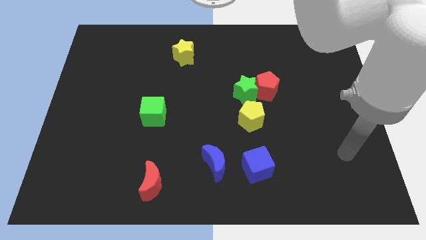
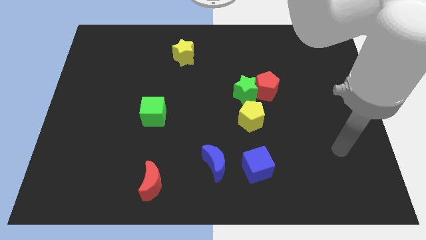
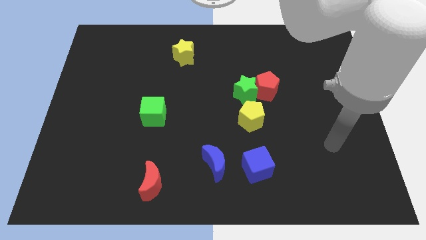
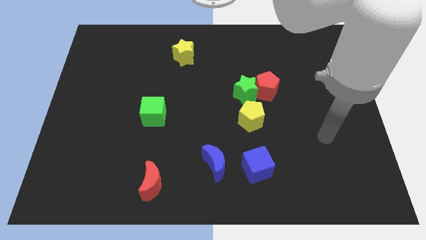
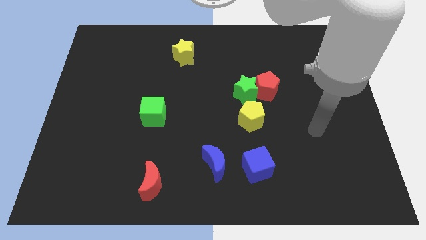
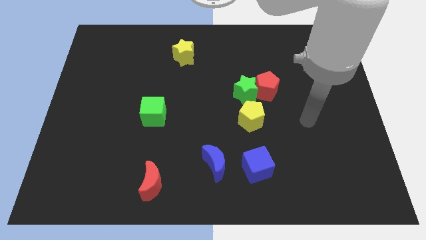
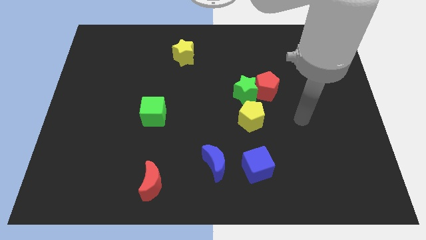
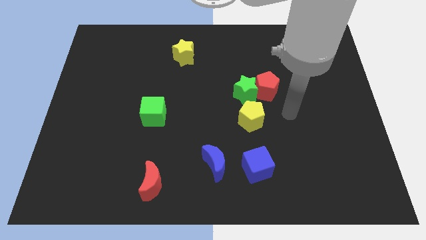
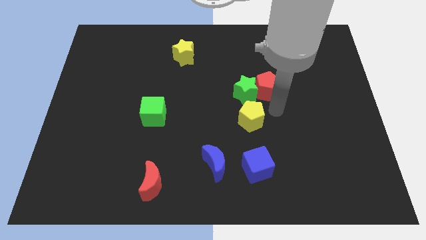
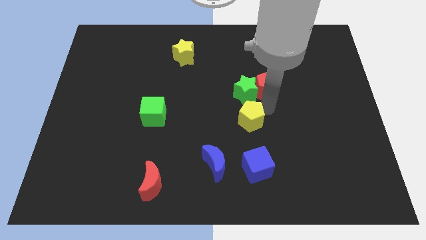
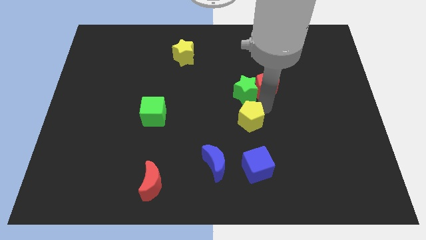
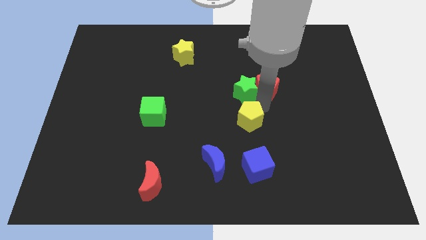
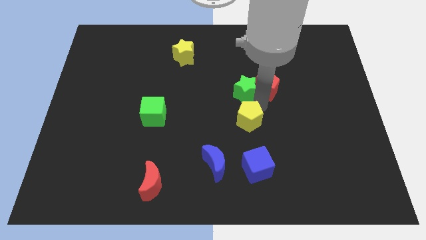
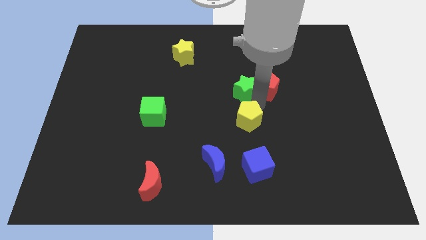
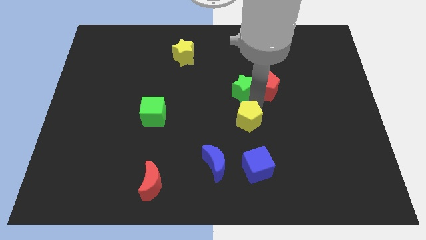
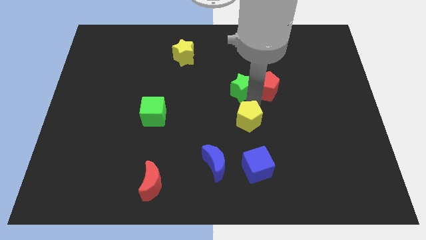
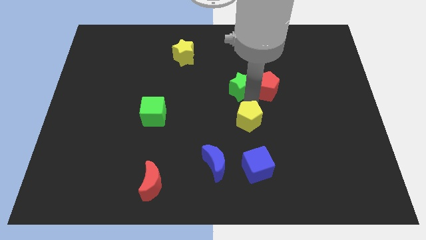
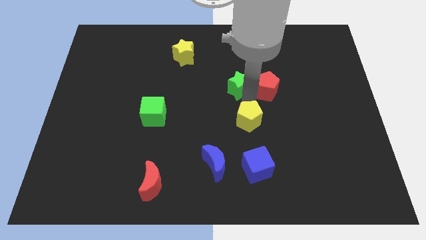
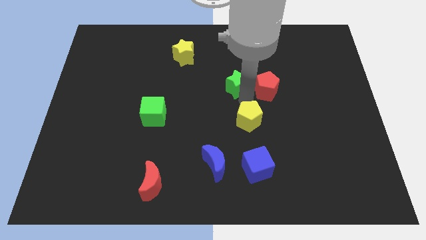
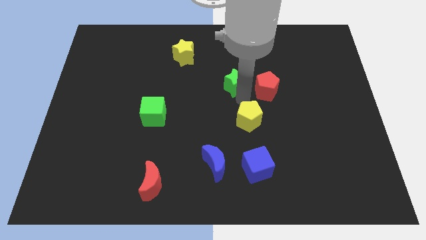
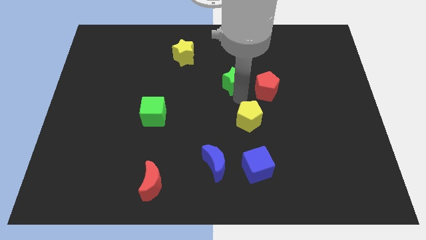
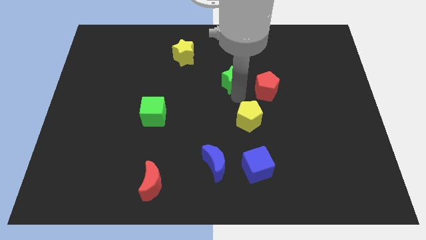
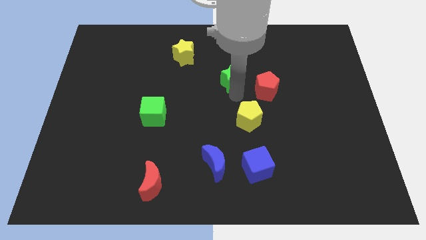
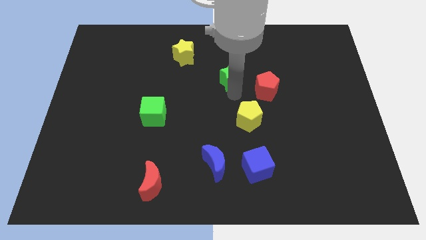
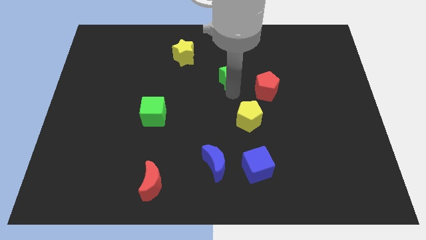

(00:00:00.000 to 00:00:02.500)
separate the green star from the red pentagon and yellow pentagon

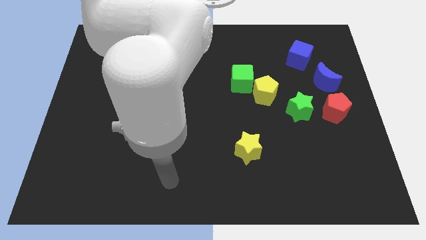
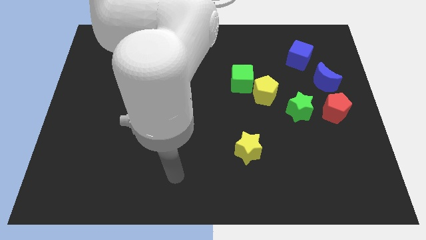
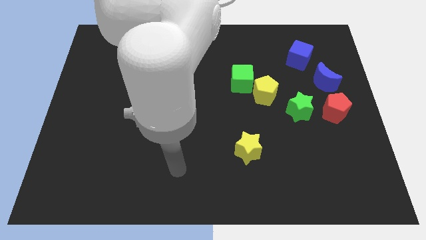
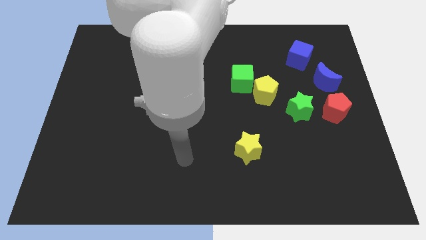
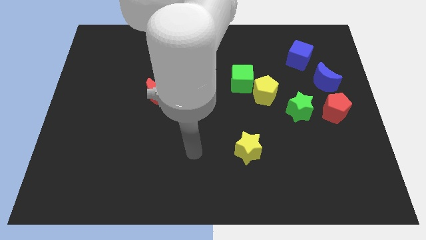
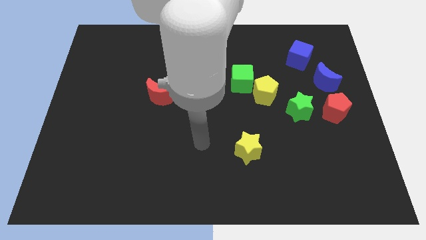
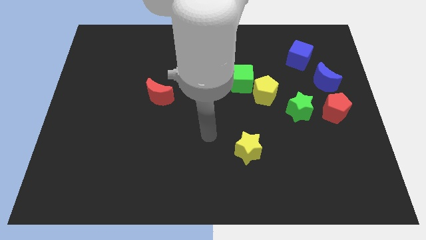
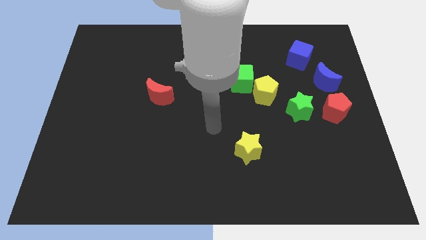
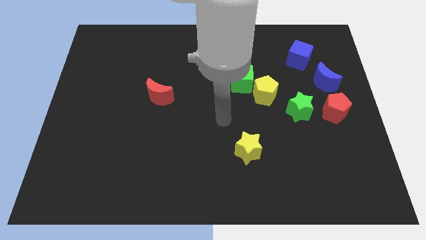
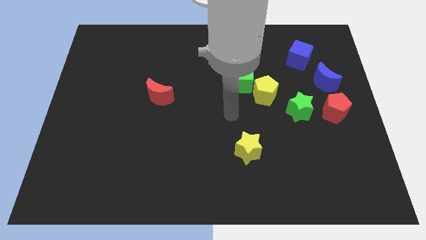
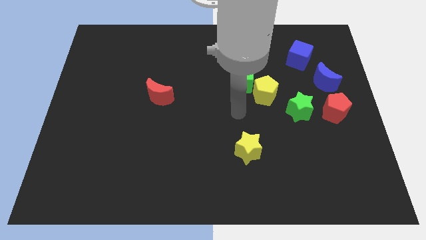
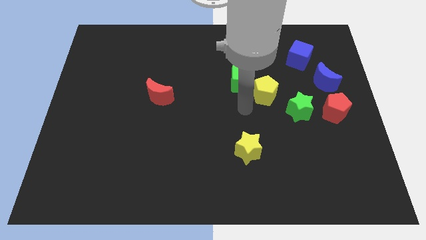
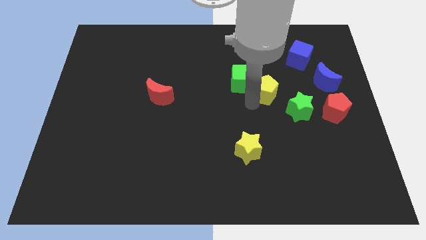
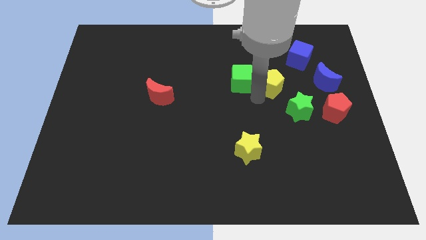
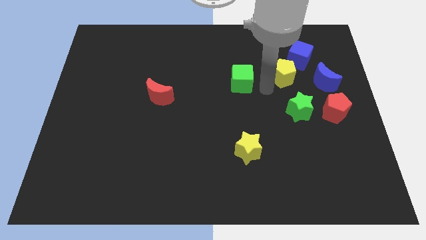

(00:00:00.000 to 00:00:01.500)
pull the green cube apart from the yellow pentagon

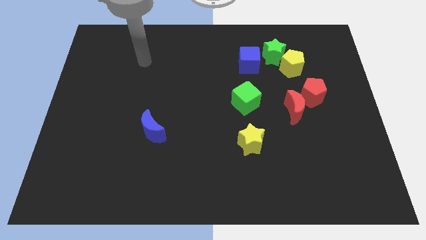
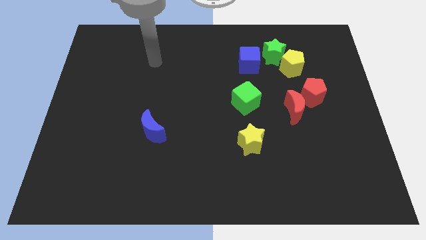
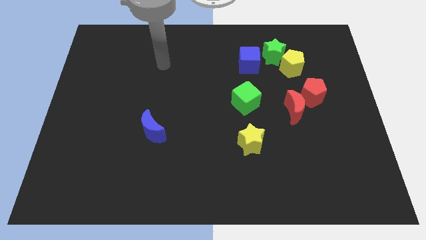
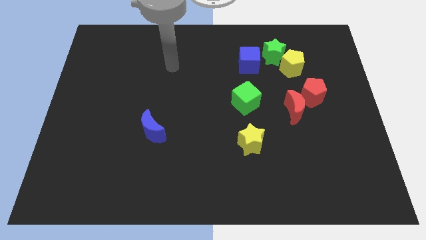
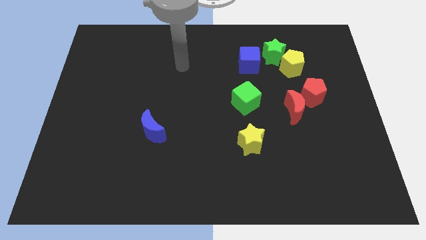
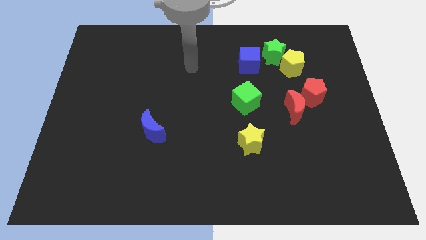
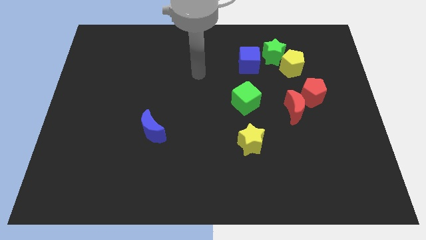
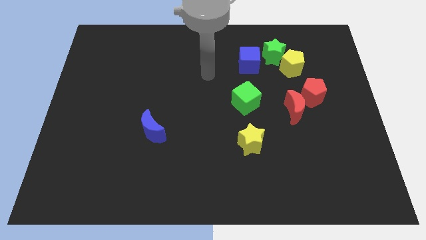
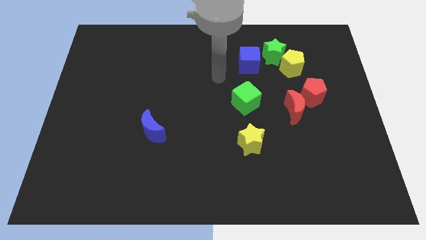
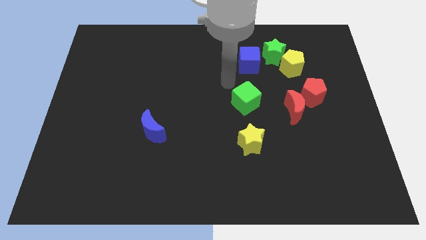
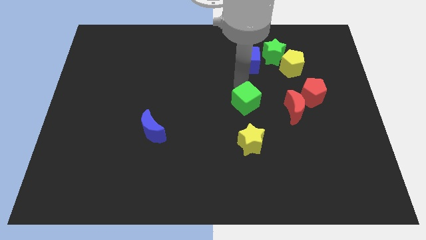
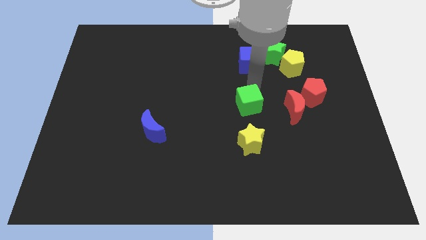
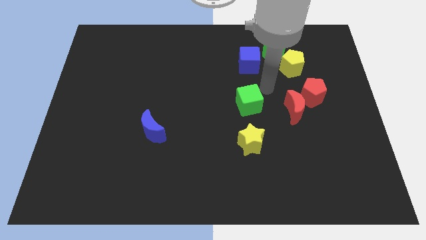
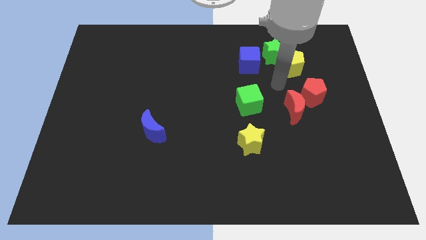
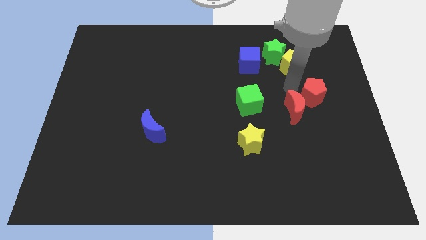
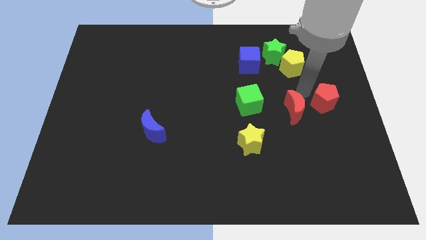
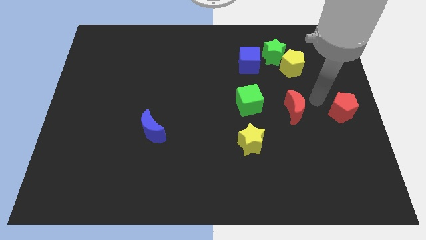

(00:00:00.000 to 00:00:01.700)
move the red moon away from the red pentagon

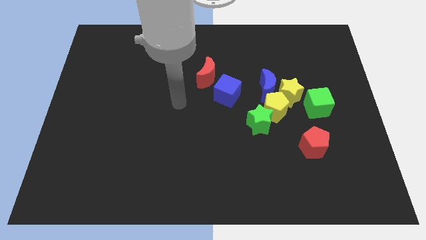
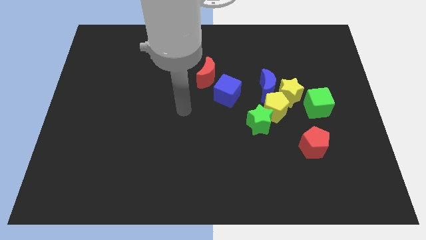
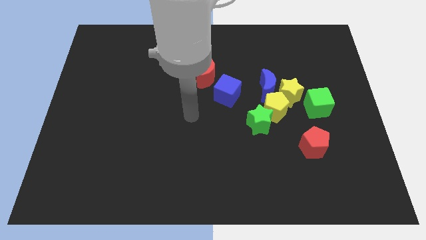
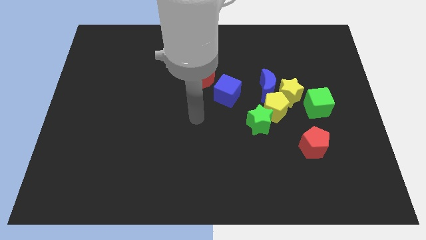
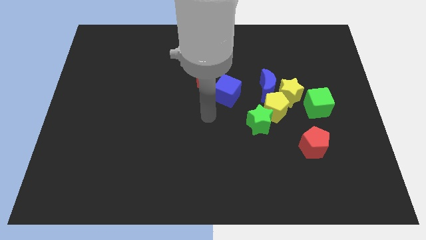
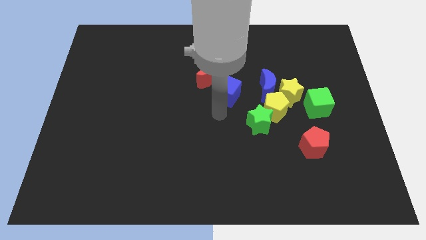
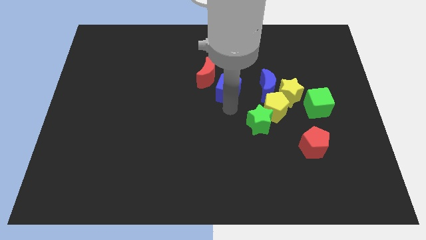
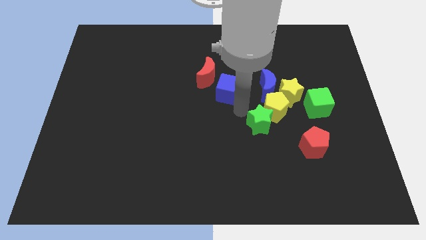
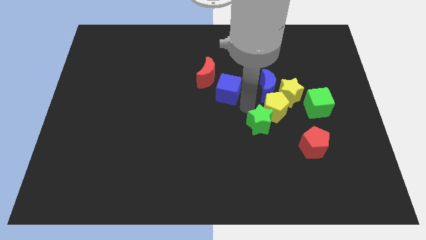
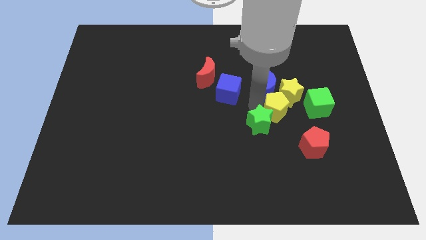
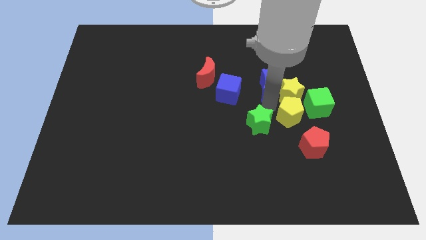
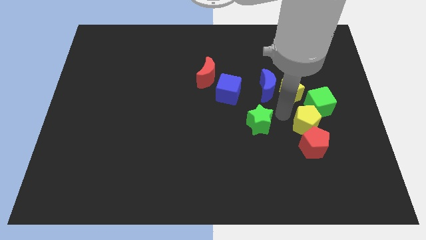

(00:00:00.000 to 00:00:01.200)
pull the green star apart from the yellow pentagon

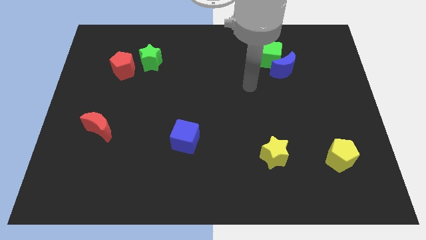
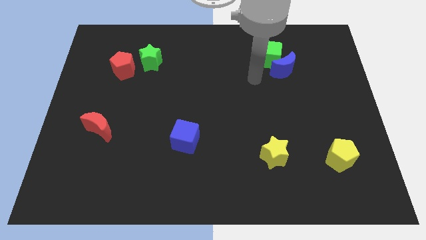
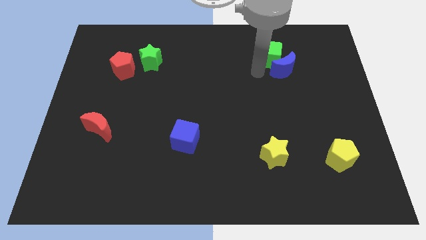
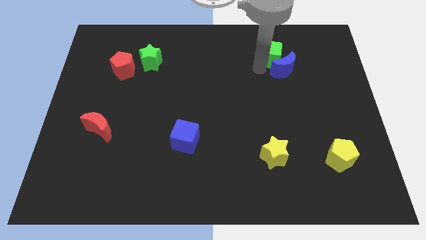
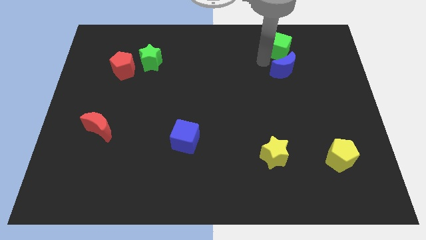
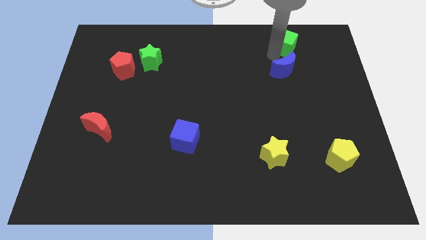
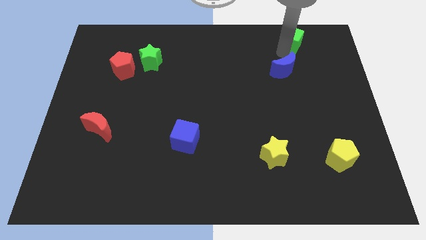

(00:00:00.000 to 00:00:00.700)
move the blue moon away from the green cube

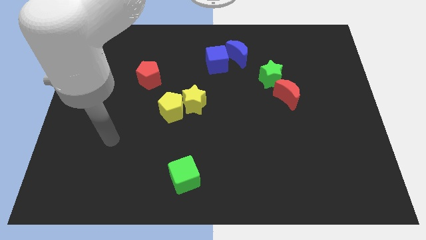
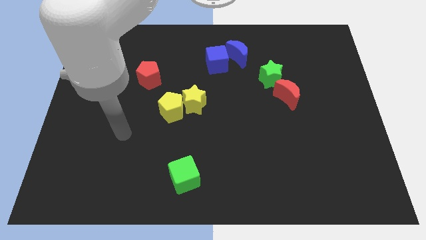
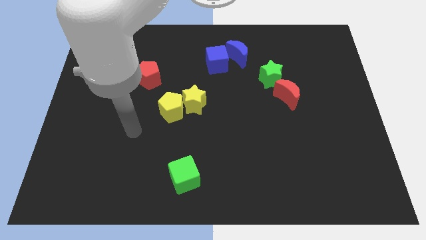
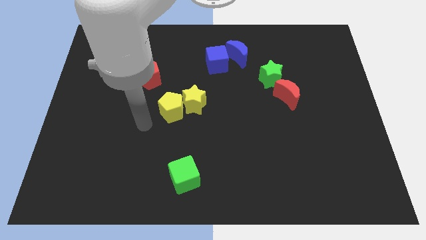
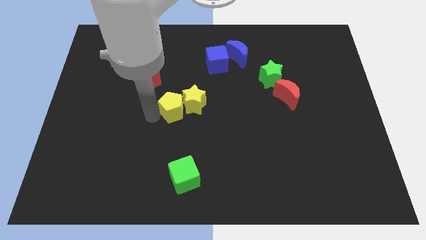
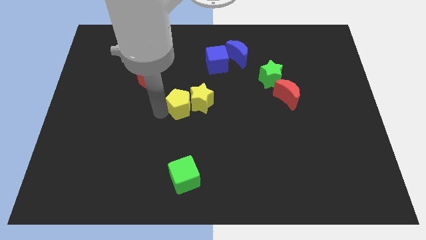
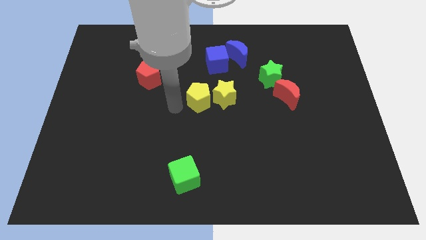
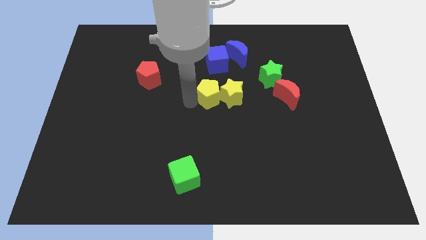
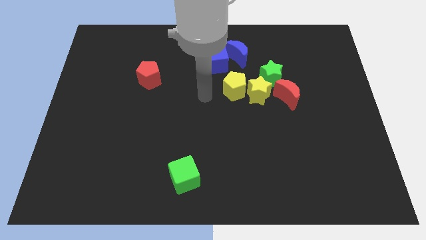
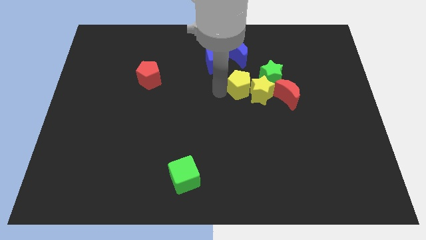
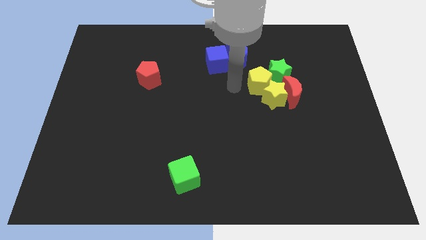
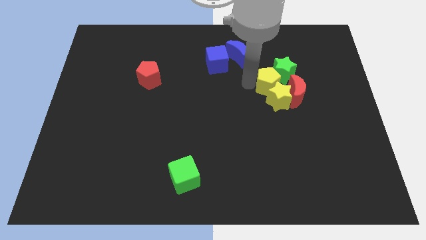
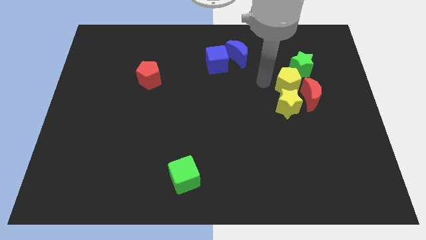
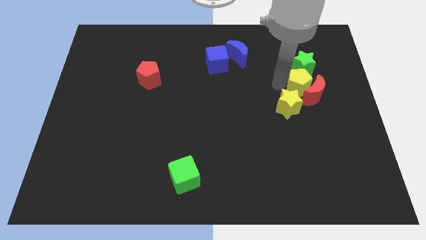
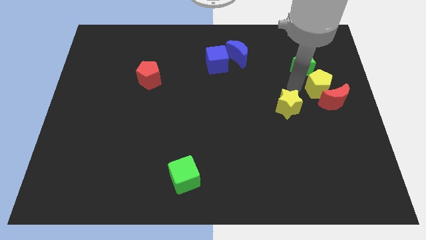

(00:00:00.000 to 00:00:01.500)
move the yellow star away from the yellow pentagon

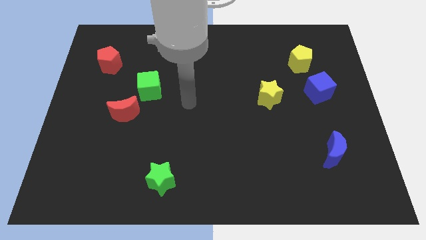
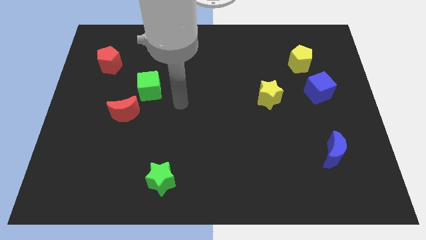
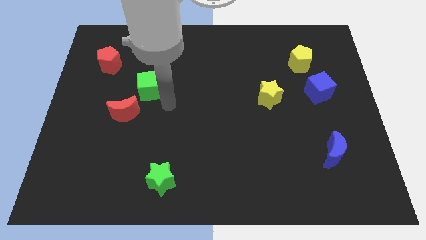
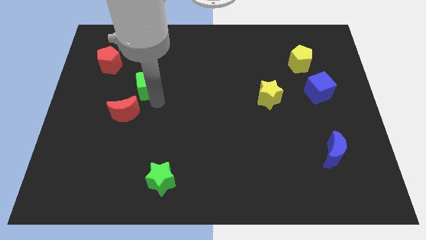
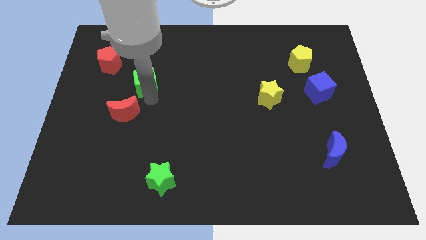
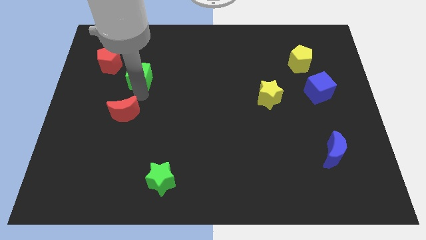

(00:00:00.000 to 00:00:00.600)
move the red moon away from the green cube
